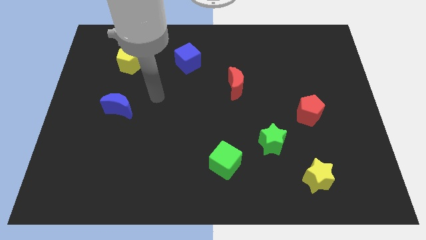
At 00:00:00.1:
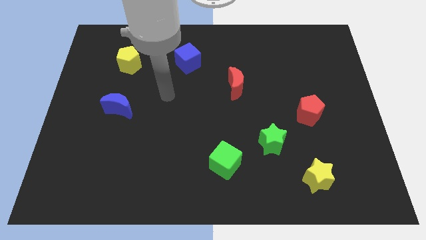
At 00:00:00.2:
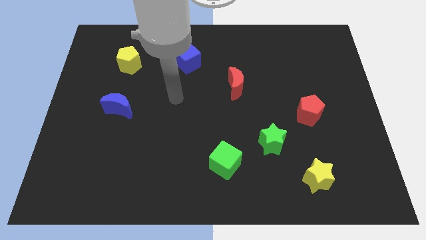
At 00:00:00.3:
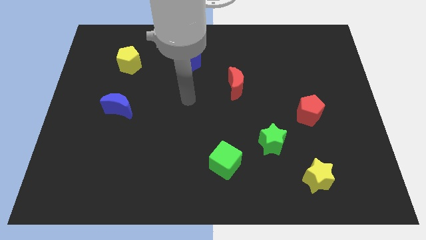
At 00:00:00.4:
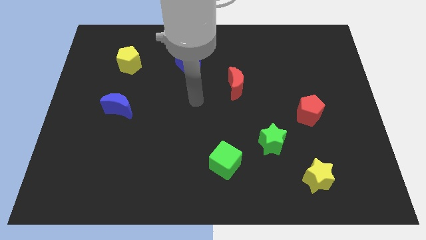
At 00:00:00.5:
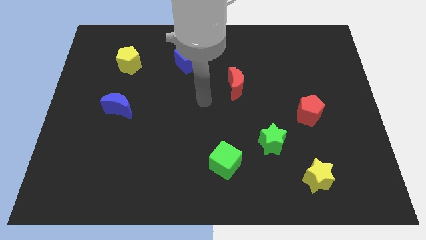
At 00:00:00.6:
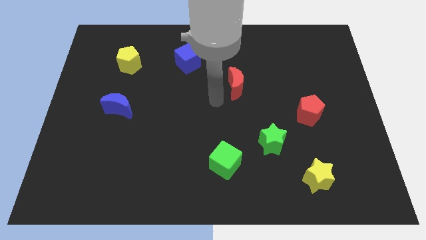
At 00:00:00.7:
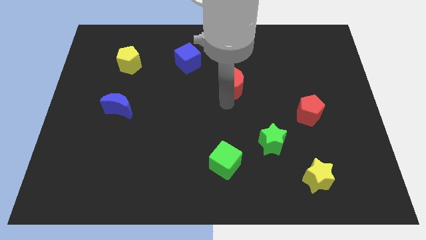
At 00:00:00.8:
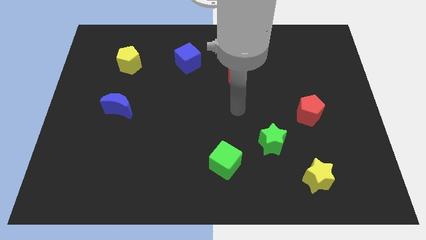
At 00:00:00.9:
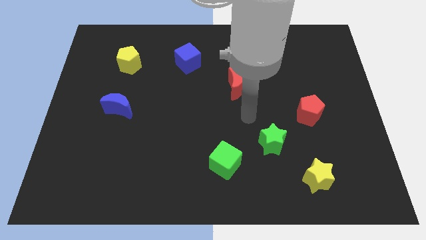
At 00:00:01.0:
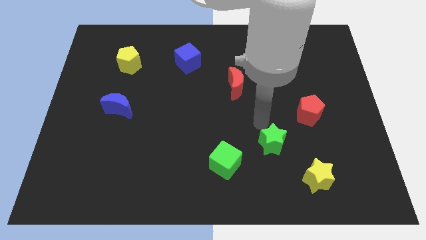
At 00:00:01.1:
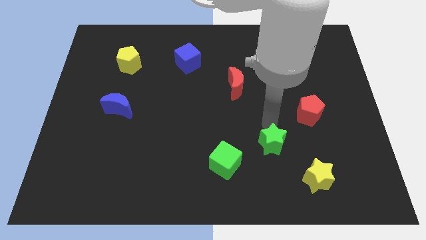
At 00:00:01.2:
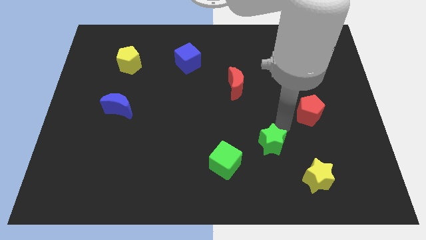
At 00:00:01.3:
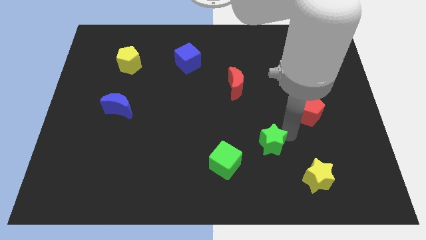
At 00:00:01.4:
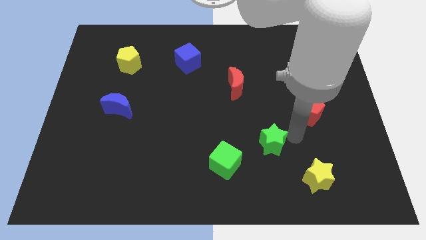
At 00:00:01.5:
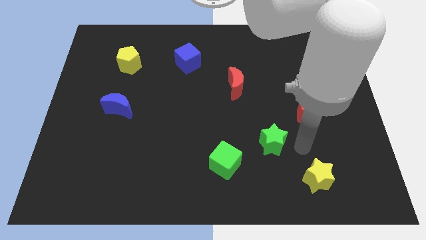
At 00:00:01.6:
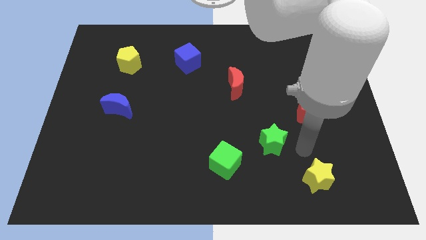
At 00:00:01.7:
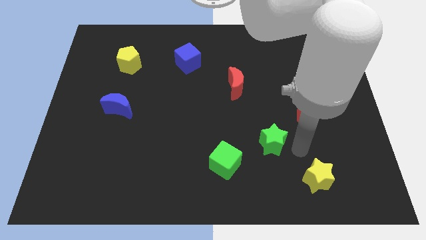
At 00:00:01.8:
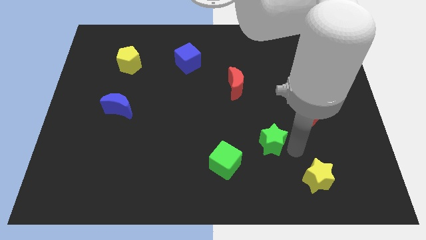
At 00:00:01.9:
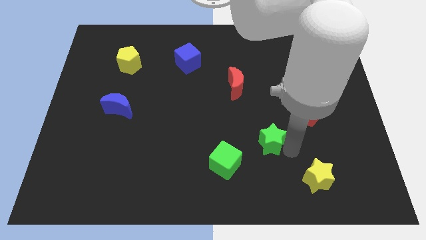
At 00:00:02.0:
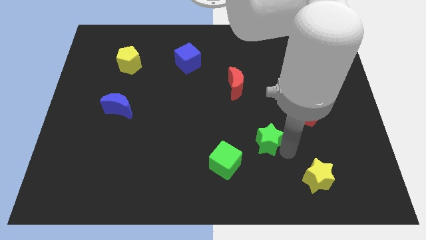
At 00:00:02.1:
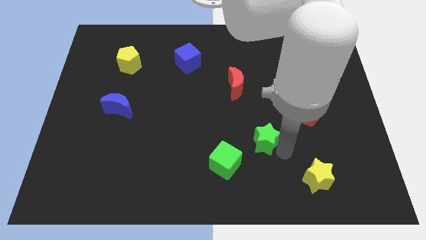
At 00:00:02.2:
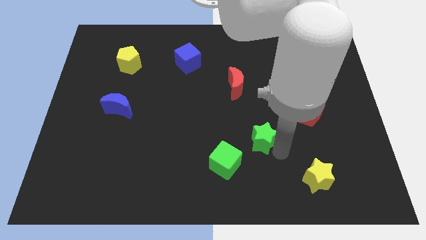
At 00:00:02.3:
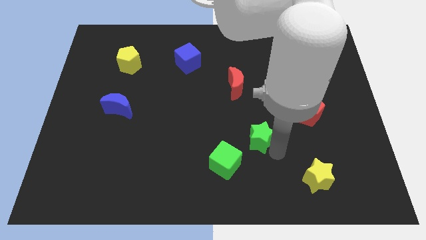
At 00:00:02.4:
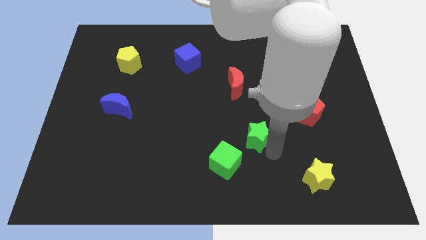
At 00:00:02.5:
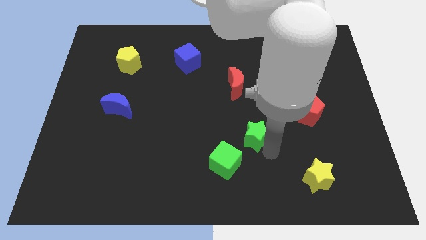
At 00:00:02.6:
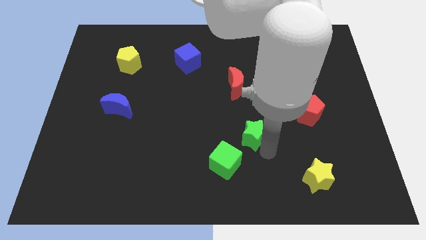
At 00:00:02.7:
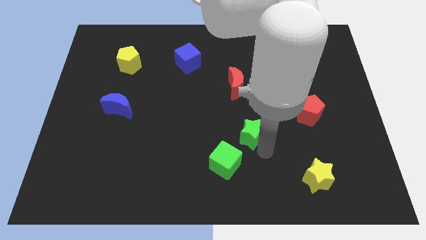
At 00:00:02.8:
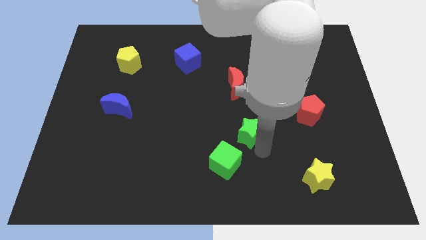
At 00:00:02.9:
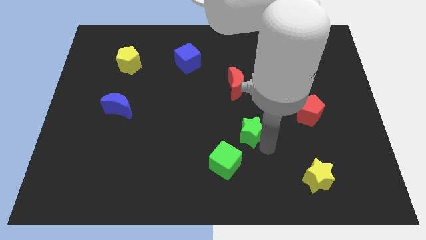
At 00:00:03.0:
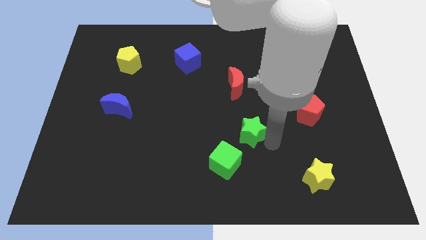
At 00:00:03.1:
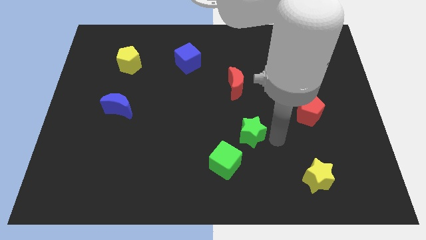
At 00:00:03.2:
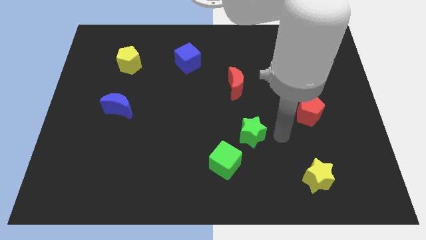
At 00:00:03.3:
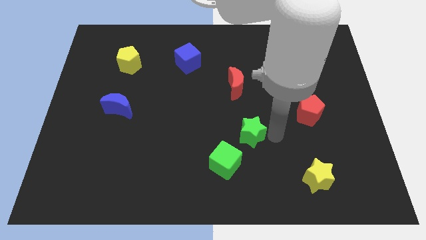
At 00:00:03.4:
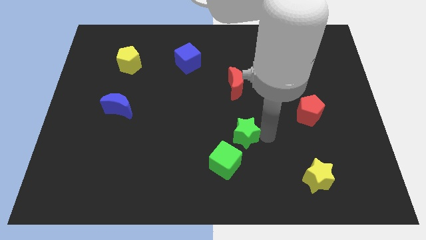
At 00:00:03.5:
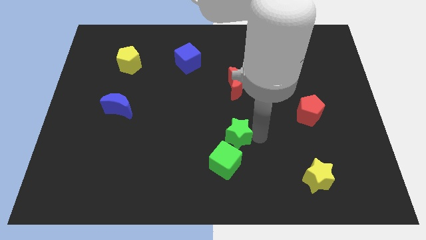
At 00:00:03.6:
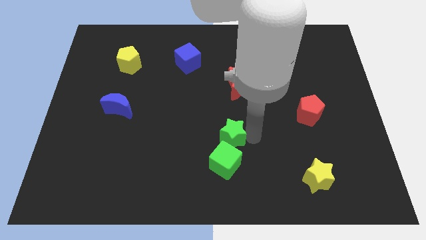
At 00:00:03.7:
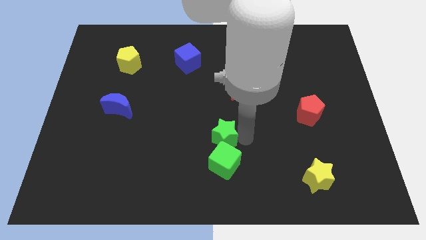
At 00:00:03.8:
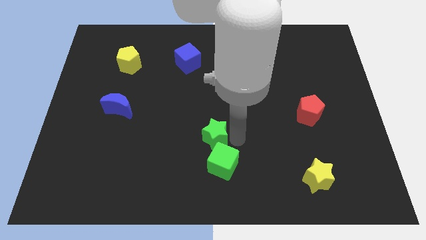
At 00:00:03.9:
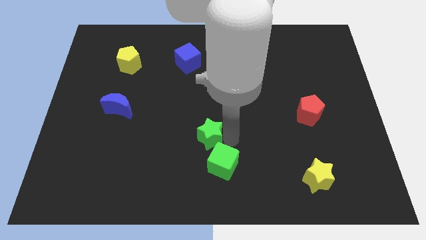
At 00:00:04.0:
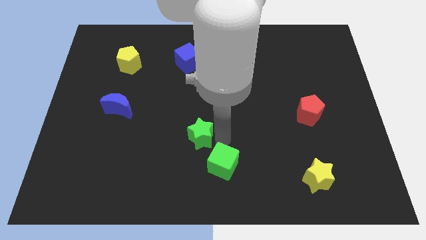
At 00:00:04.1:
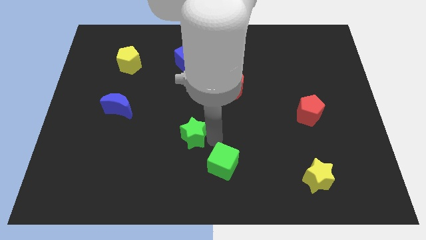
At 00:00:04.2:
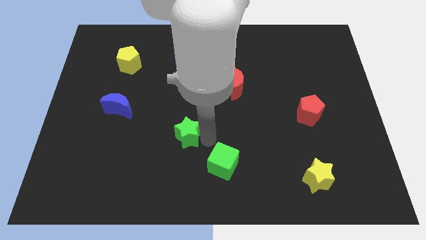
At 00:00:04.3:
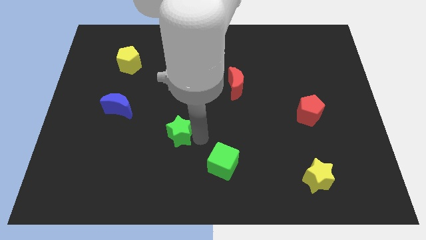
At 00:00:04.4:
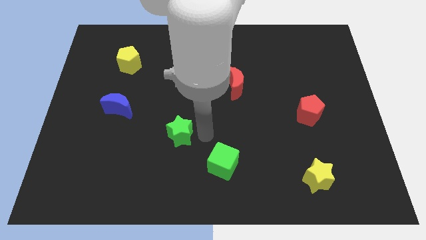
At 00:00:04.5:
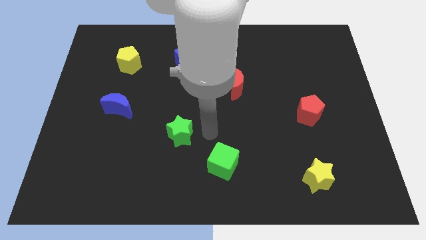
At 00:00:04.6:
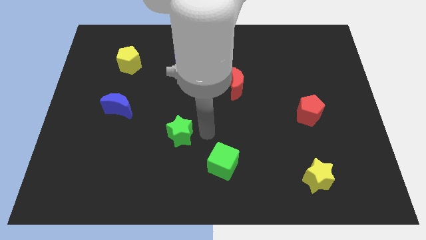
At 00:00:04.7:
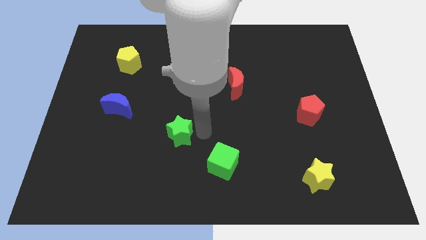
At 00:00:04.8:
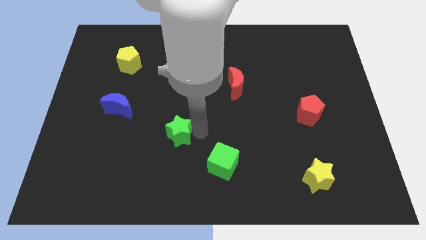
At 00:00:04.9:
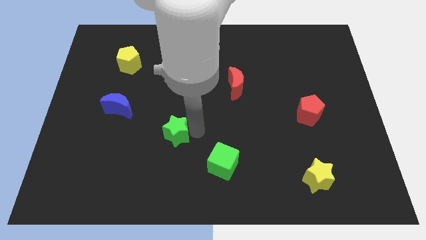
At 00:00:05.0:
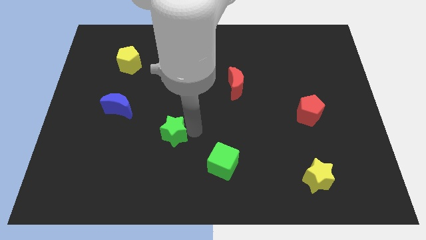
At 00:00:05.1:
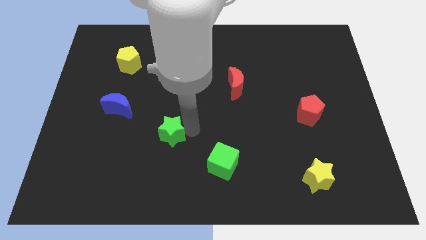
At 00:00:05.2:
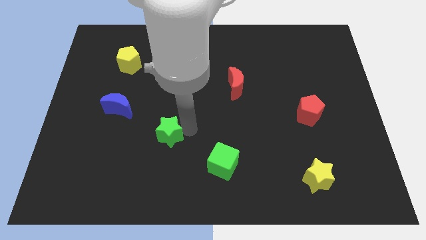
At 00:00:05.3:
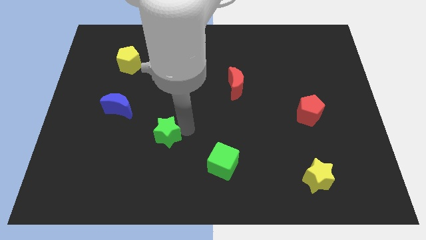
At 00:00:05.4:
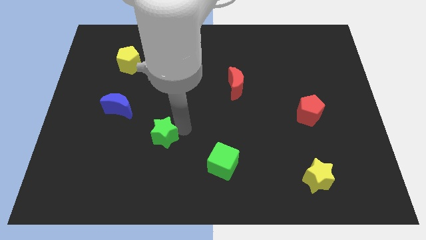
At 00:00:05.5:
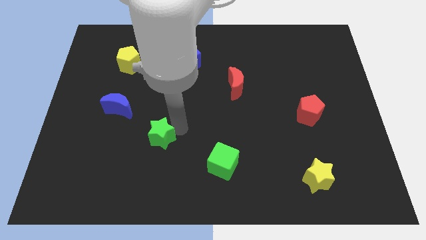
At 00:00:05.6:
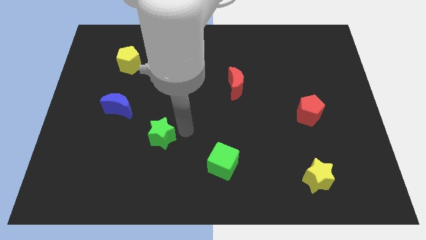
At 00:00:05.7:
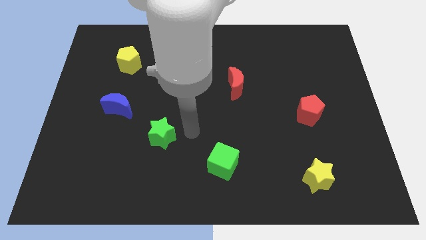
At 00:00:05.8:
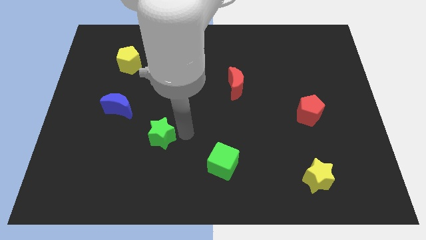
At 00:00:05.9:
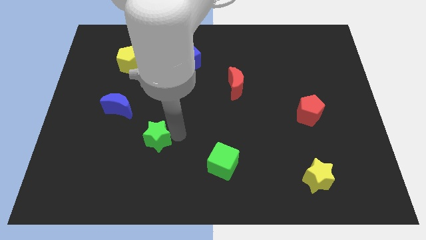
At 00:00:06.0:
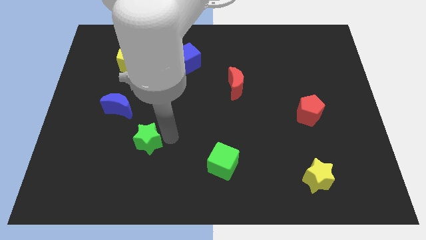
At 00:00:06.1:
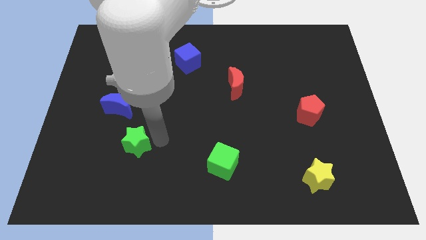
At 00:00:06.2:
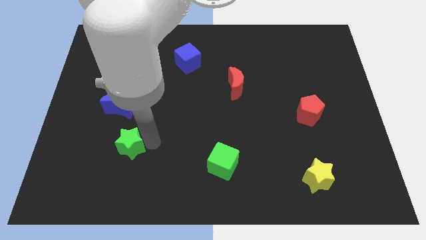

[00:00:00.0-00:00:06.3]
move the green star below the blue moon

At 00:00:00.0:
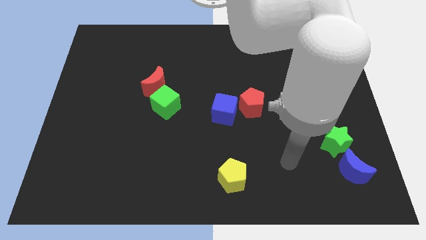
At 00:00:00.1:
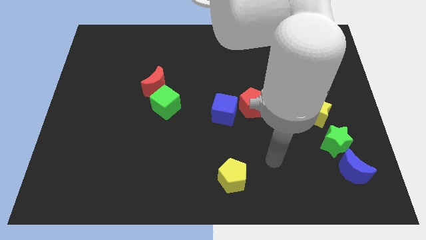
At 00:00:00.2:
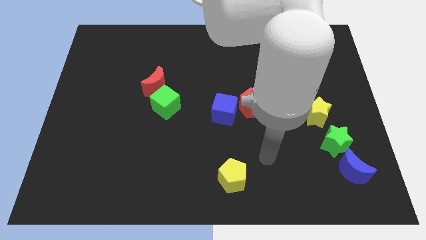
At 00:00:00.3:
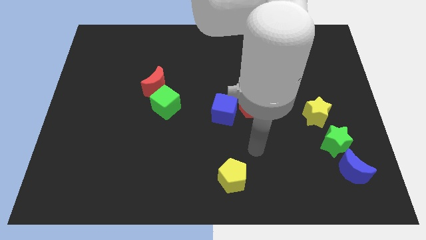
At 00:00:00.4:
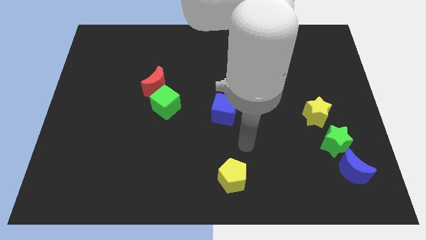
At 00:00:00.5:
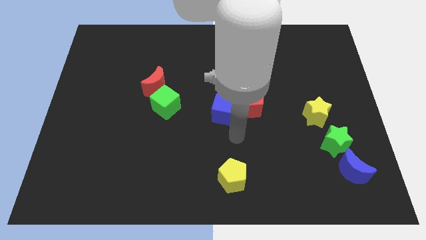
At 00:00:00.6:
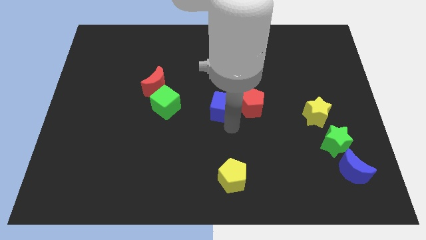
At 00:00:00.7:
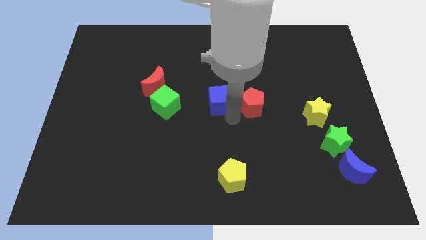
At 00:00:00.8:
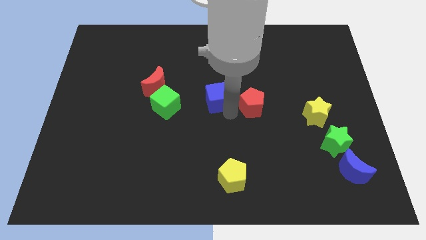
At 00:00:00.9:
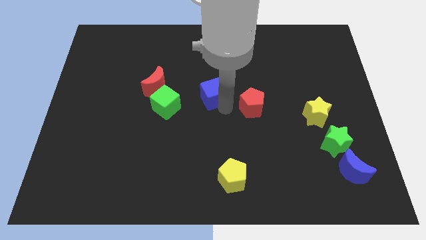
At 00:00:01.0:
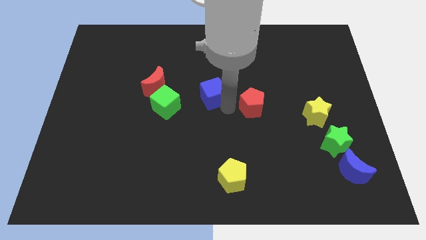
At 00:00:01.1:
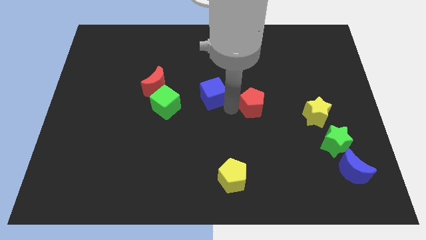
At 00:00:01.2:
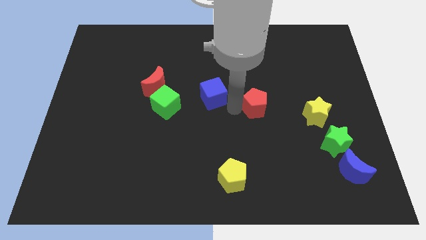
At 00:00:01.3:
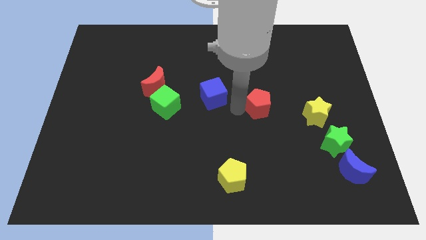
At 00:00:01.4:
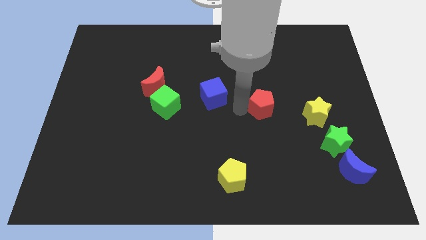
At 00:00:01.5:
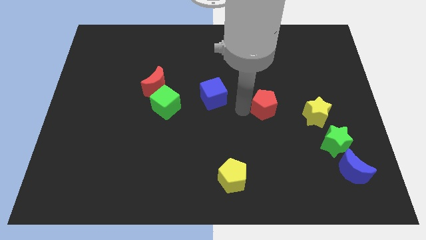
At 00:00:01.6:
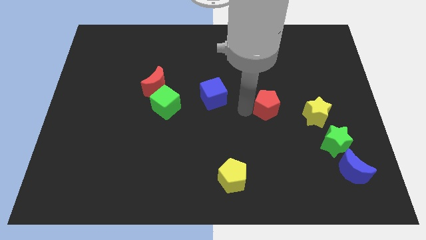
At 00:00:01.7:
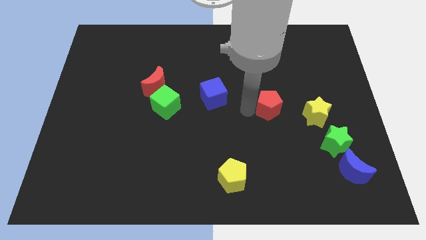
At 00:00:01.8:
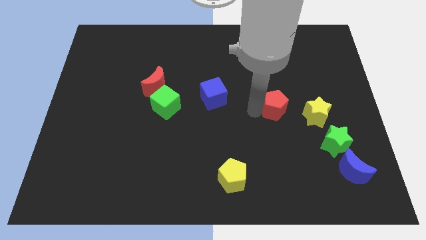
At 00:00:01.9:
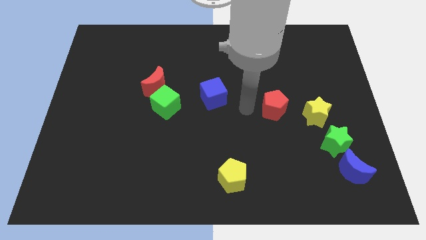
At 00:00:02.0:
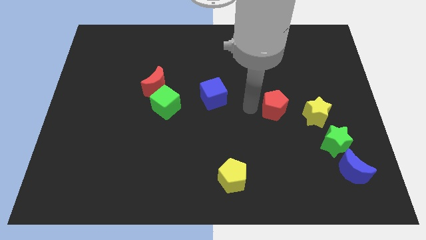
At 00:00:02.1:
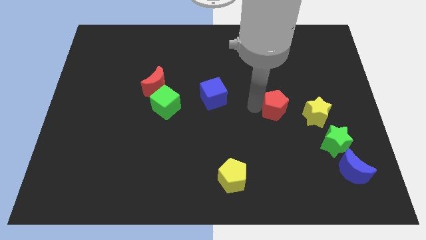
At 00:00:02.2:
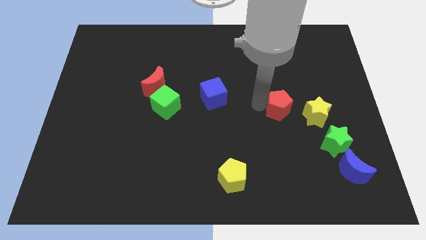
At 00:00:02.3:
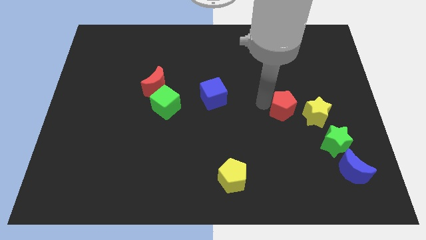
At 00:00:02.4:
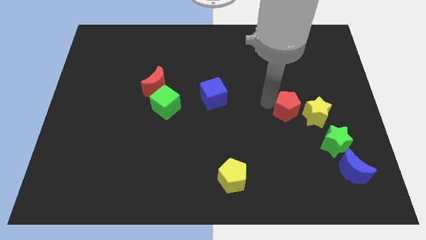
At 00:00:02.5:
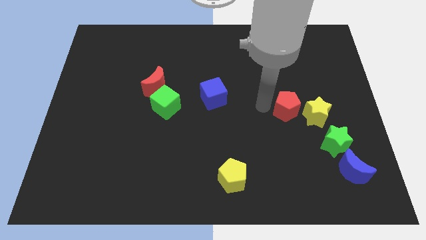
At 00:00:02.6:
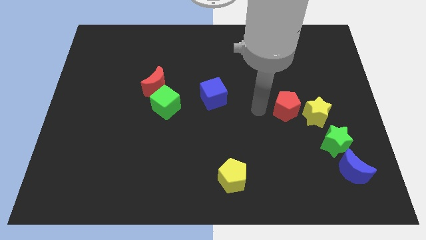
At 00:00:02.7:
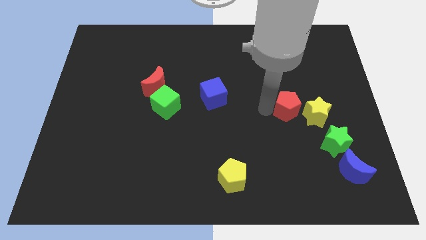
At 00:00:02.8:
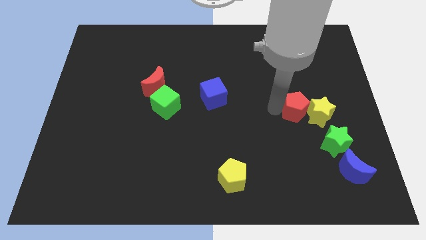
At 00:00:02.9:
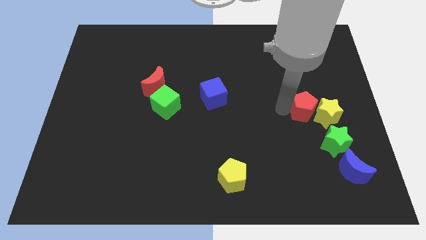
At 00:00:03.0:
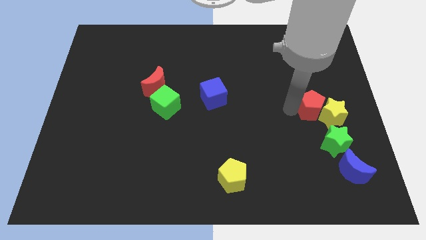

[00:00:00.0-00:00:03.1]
move the red pentagon above the green star
